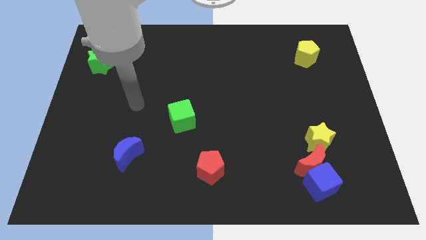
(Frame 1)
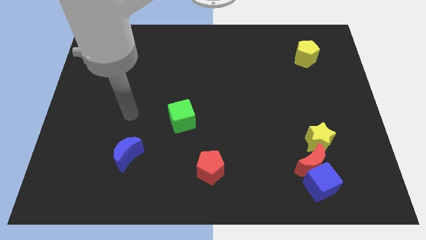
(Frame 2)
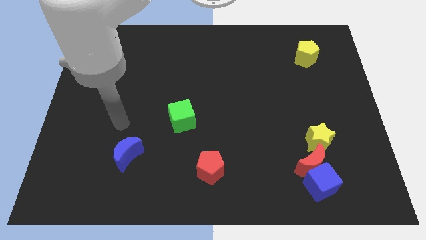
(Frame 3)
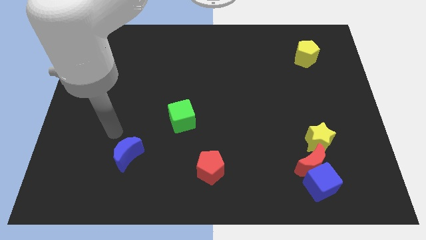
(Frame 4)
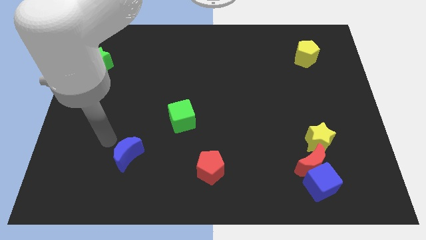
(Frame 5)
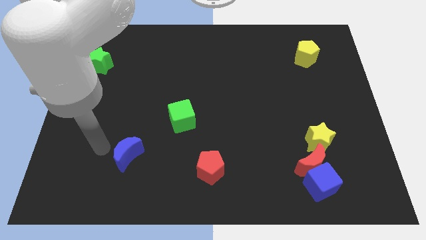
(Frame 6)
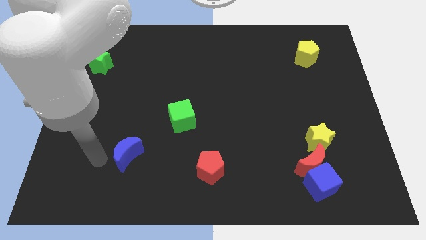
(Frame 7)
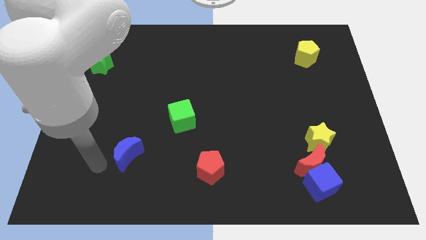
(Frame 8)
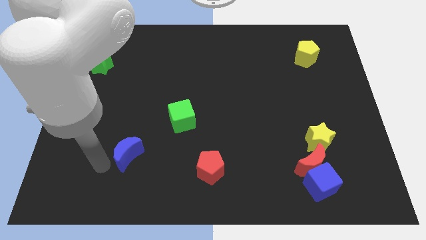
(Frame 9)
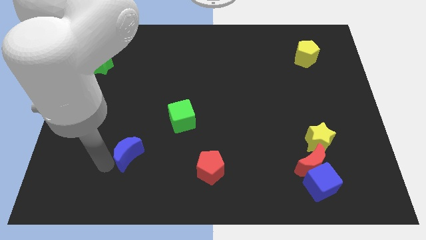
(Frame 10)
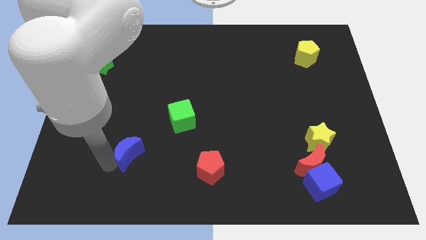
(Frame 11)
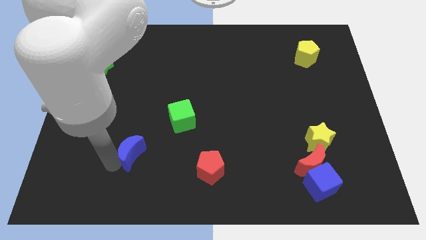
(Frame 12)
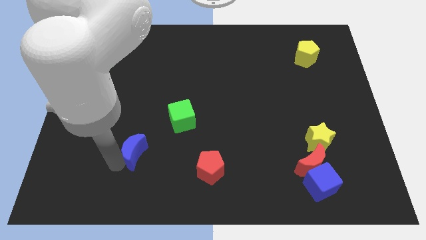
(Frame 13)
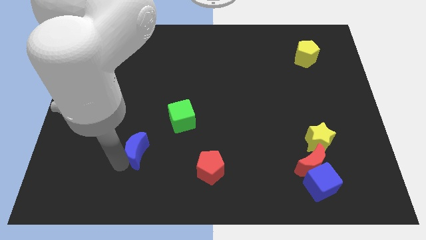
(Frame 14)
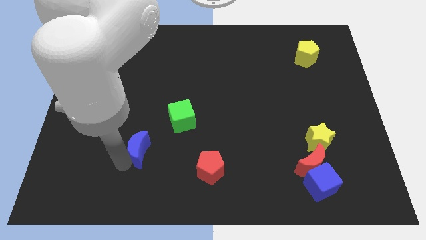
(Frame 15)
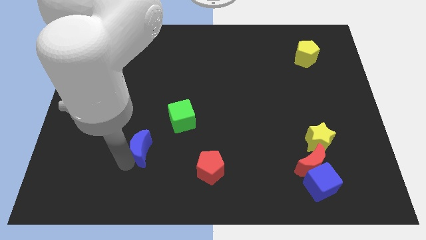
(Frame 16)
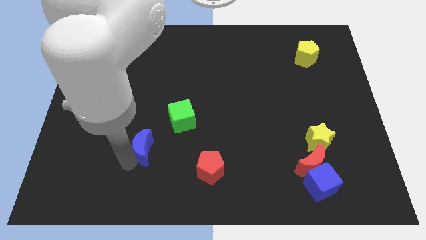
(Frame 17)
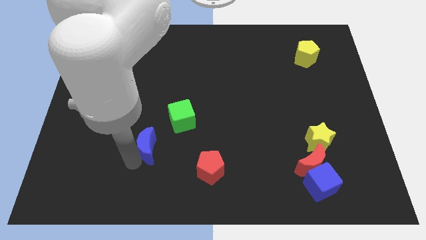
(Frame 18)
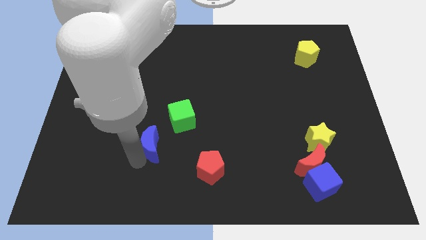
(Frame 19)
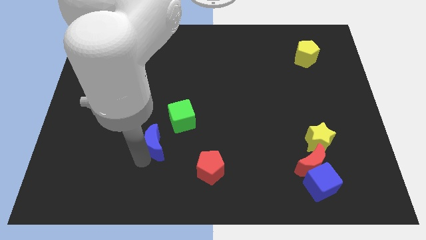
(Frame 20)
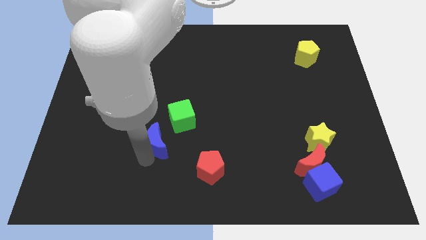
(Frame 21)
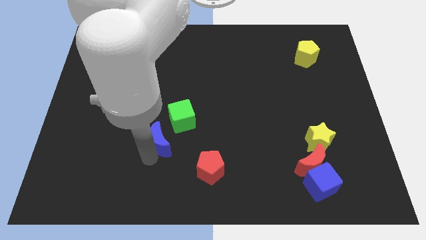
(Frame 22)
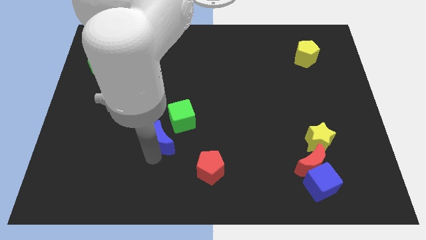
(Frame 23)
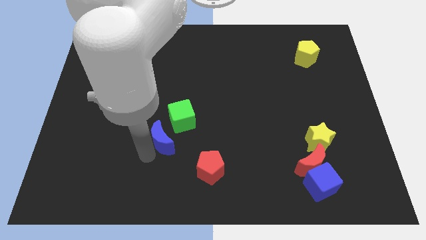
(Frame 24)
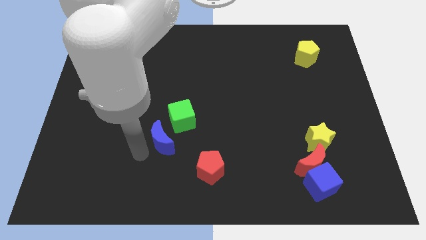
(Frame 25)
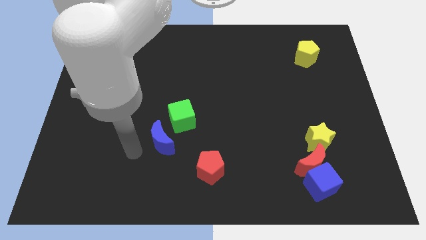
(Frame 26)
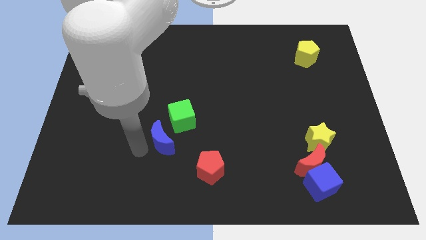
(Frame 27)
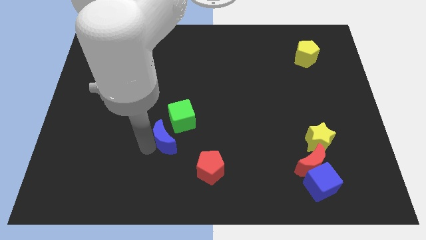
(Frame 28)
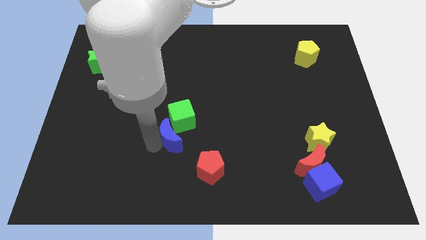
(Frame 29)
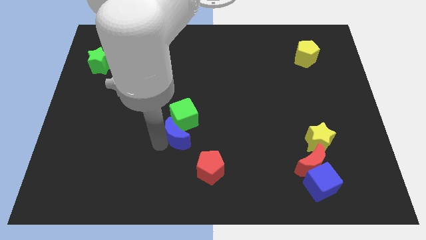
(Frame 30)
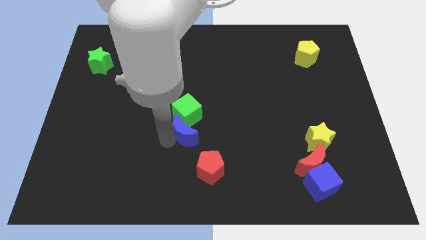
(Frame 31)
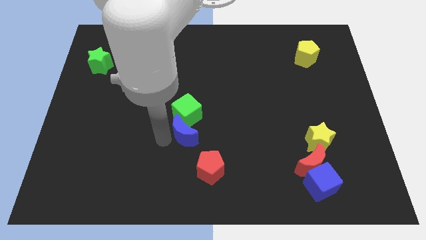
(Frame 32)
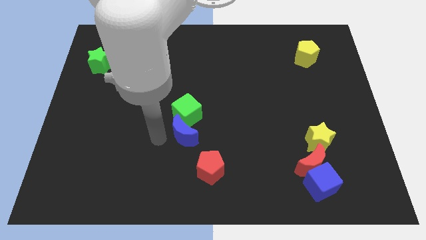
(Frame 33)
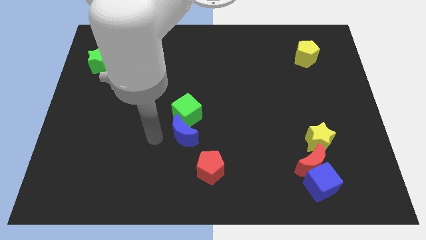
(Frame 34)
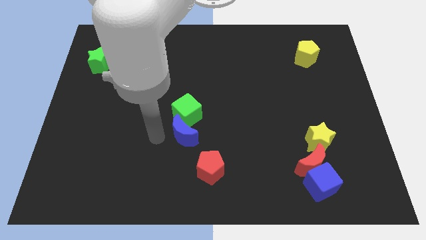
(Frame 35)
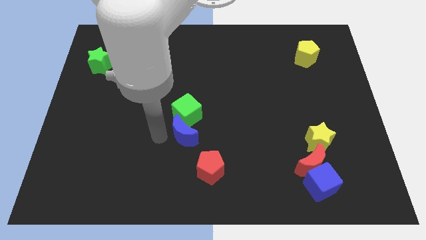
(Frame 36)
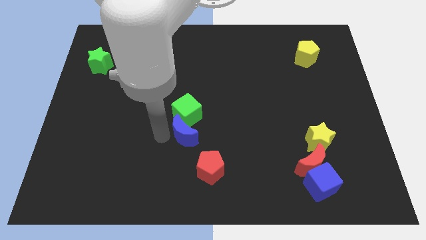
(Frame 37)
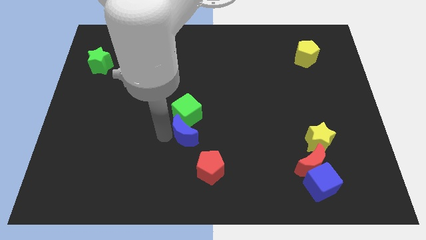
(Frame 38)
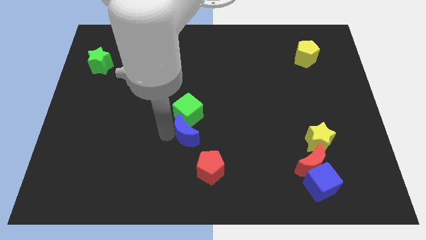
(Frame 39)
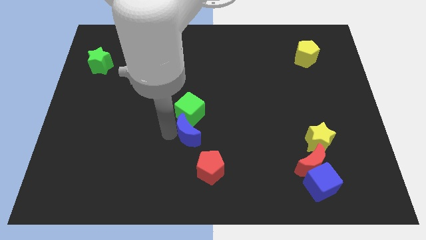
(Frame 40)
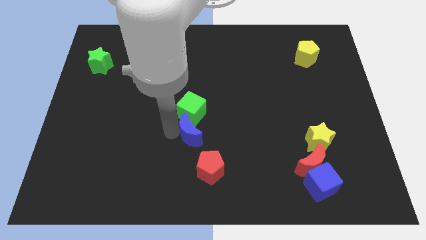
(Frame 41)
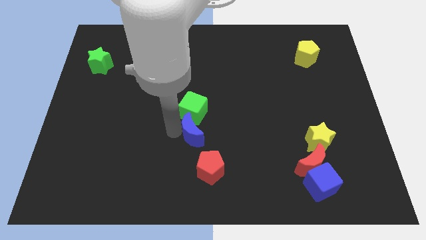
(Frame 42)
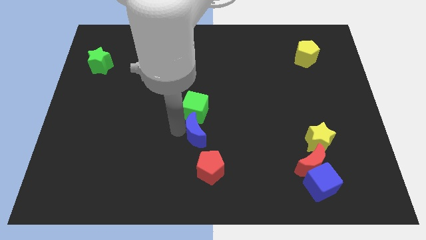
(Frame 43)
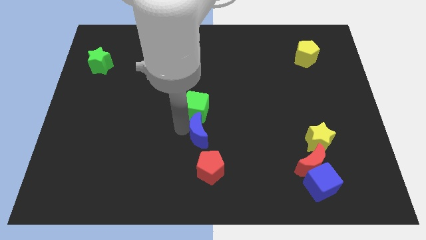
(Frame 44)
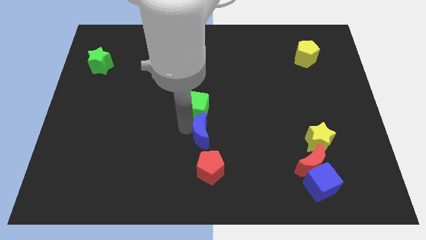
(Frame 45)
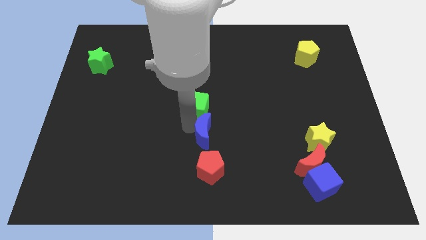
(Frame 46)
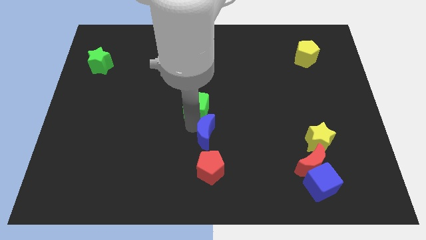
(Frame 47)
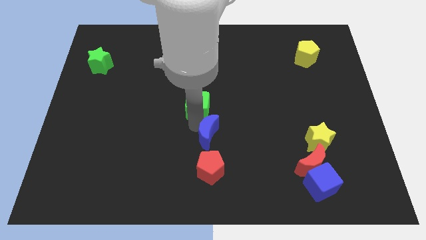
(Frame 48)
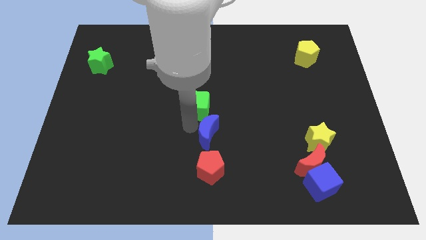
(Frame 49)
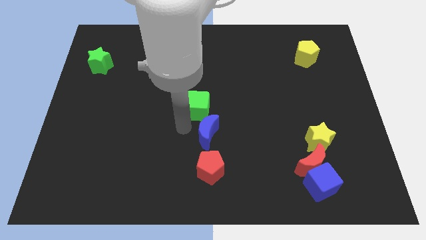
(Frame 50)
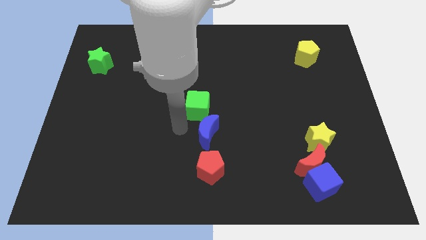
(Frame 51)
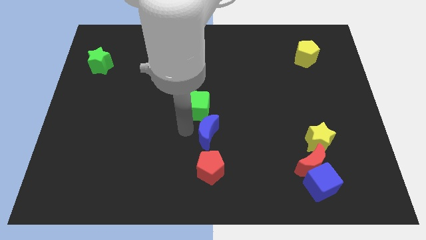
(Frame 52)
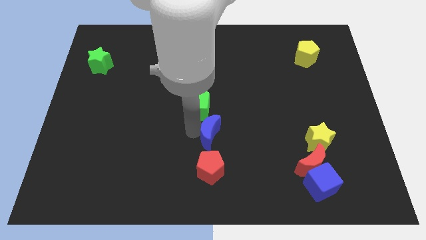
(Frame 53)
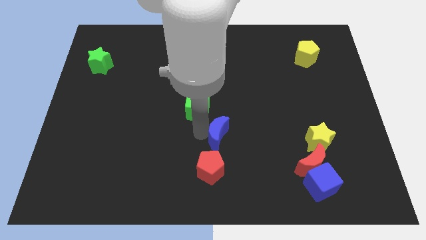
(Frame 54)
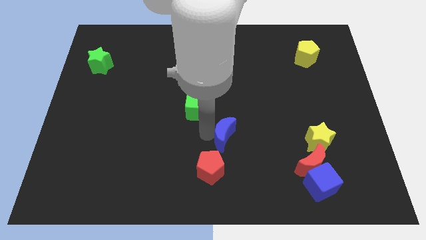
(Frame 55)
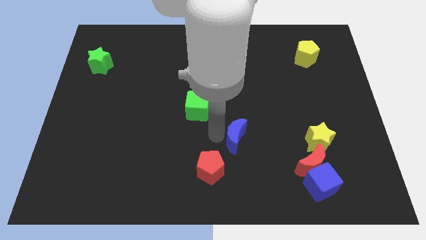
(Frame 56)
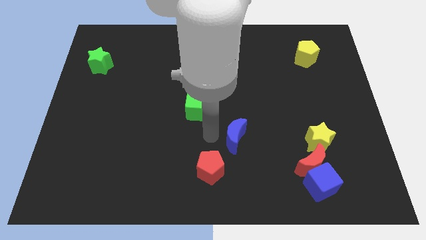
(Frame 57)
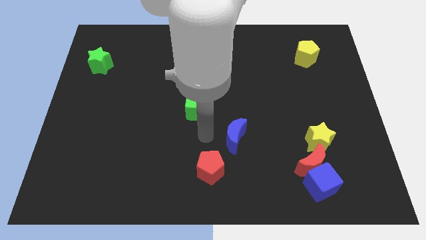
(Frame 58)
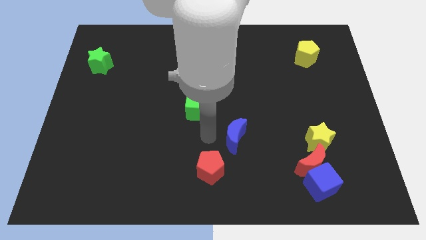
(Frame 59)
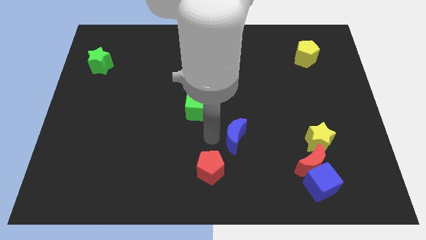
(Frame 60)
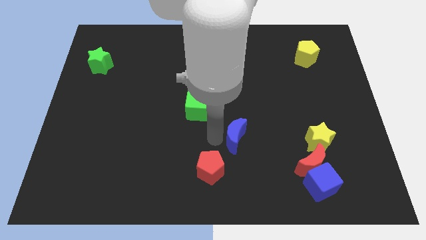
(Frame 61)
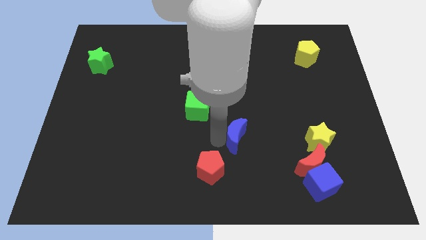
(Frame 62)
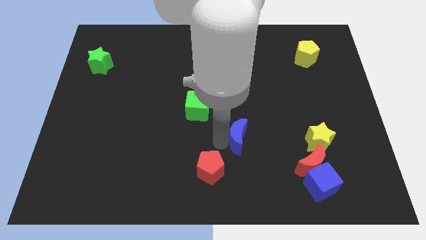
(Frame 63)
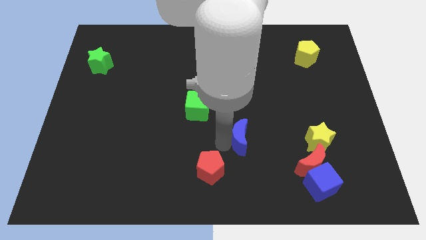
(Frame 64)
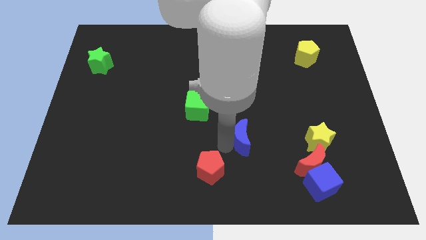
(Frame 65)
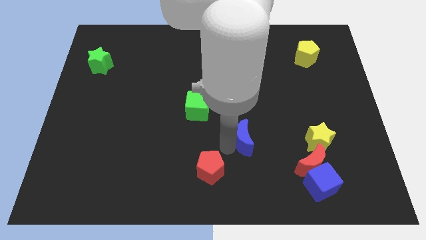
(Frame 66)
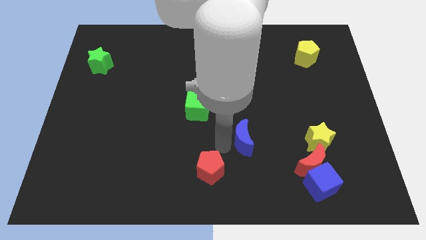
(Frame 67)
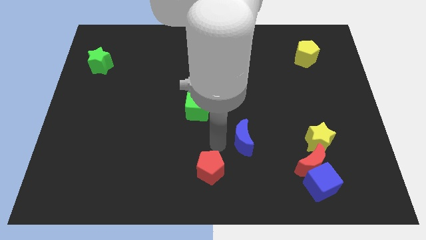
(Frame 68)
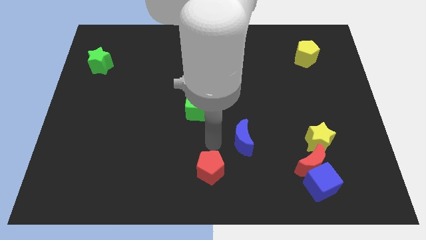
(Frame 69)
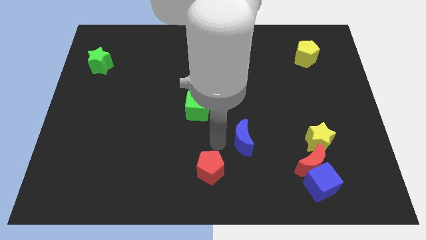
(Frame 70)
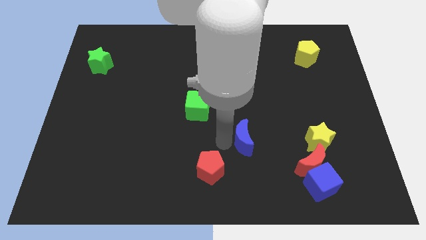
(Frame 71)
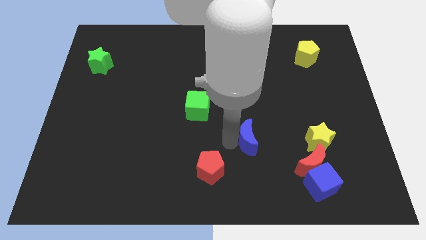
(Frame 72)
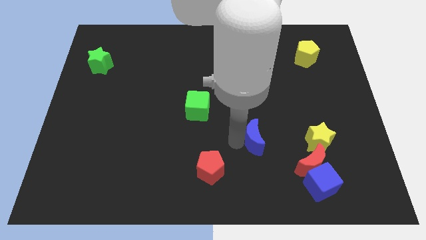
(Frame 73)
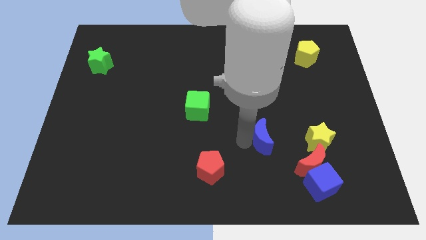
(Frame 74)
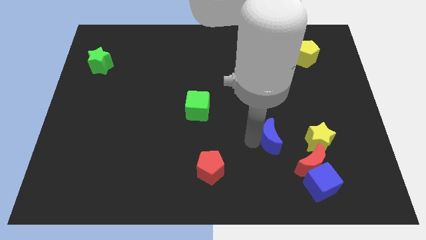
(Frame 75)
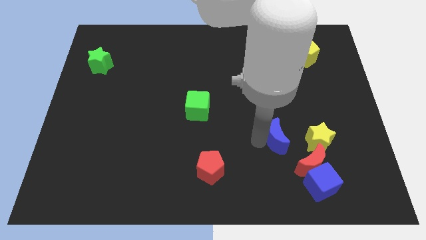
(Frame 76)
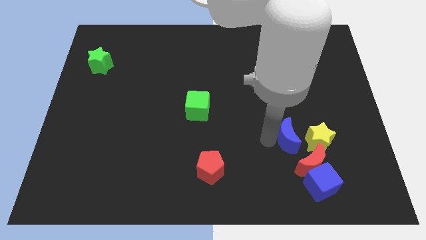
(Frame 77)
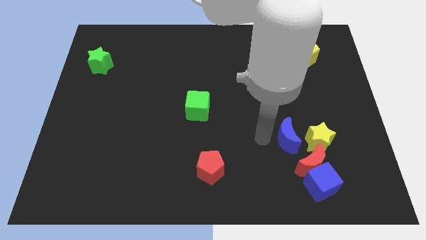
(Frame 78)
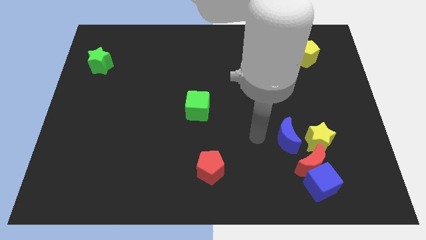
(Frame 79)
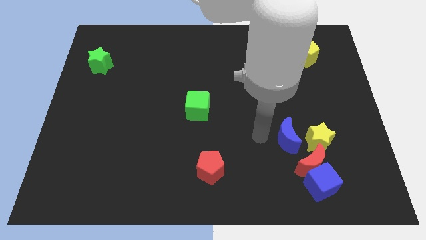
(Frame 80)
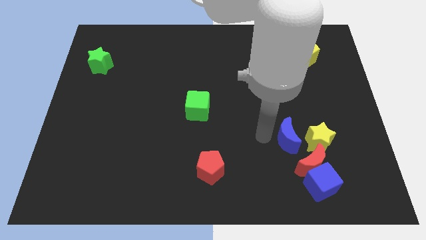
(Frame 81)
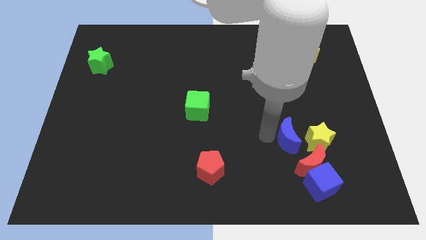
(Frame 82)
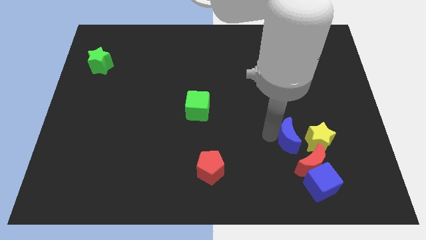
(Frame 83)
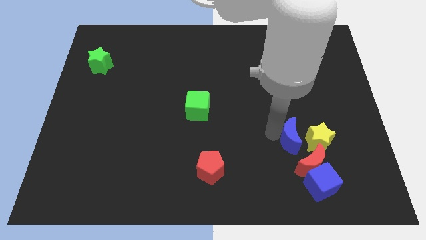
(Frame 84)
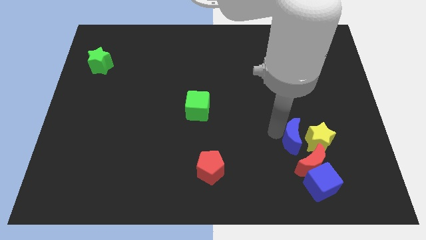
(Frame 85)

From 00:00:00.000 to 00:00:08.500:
slide the blue moon towards the yellow star
